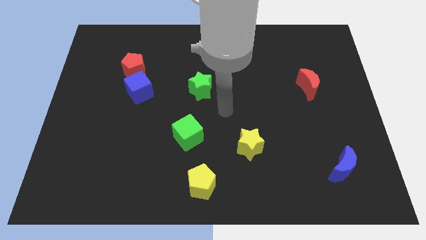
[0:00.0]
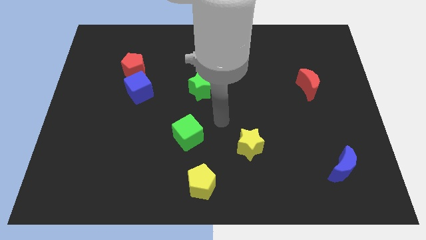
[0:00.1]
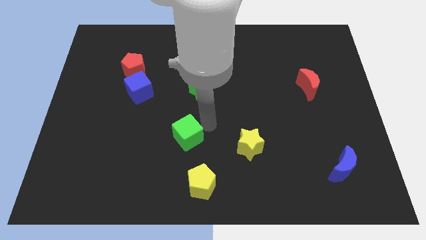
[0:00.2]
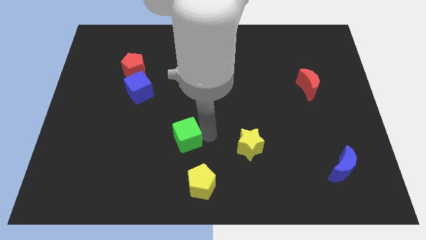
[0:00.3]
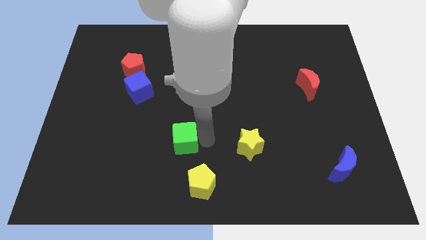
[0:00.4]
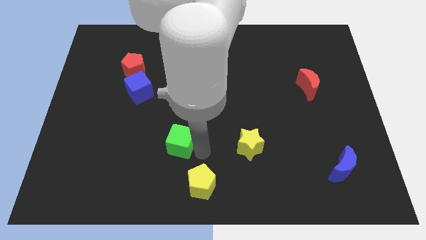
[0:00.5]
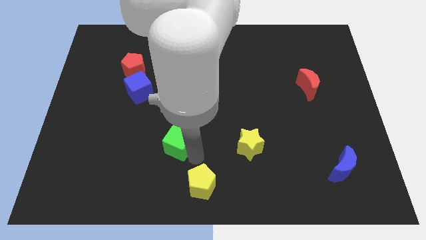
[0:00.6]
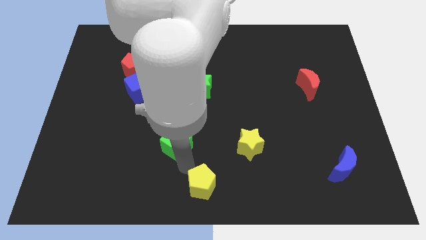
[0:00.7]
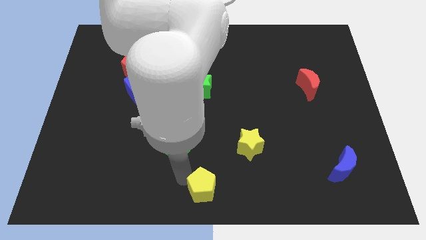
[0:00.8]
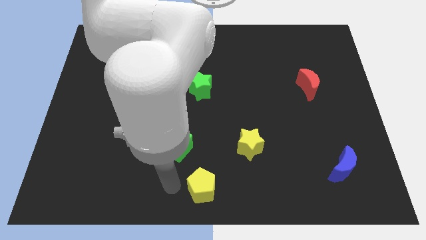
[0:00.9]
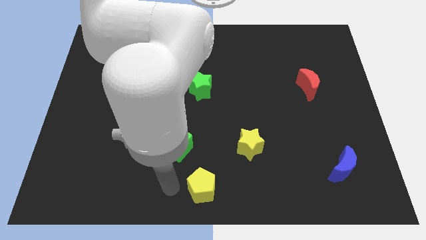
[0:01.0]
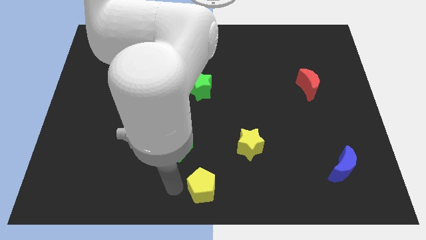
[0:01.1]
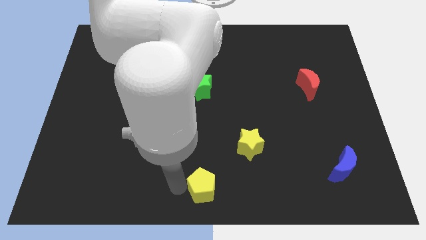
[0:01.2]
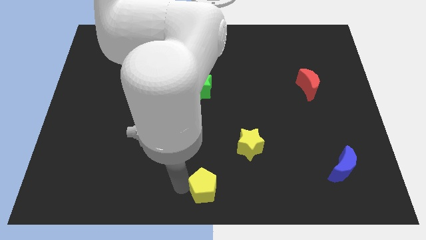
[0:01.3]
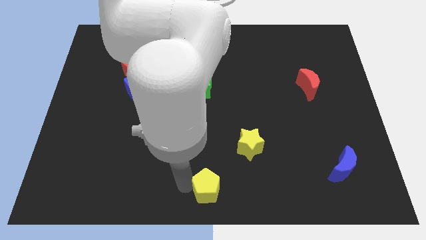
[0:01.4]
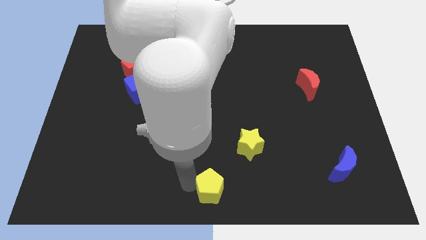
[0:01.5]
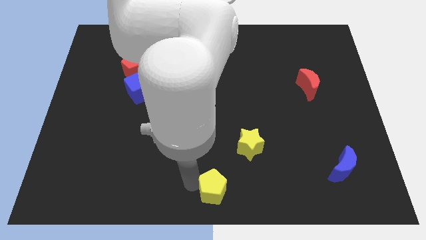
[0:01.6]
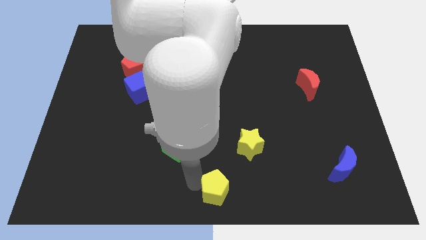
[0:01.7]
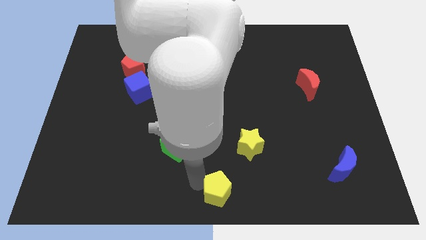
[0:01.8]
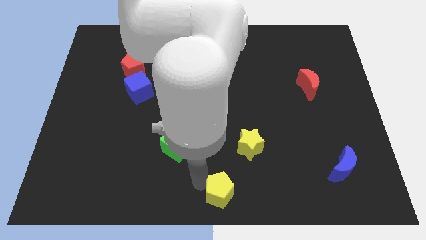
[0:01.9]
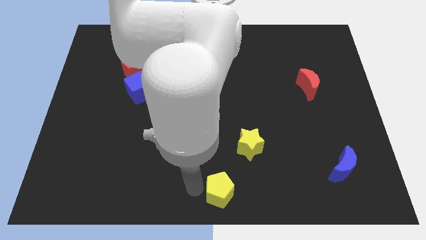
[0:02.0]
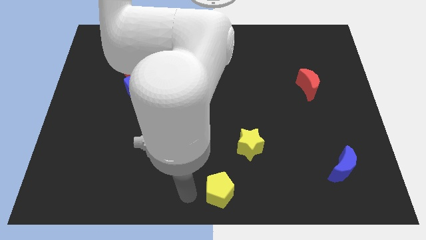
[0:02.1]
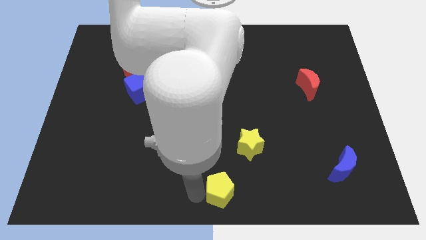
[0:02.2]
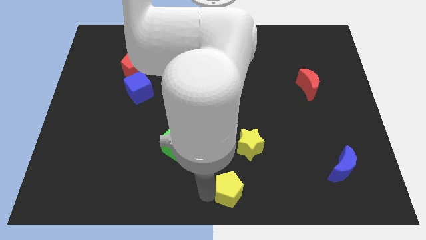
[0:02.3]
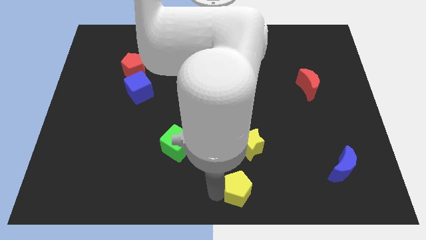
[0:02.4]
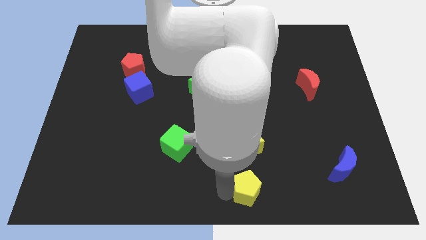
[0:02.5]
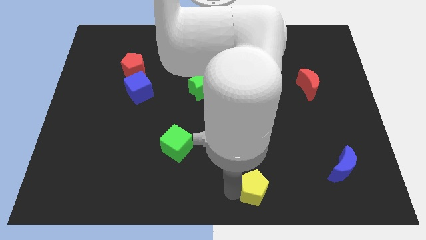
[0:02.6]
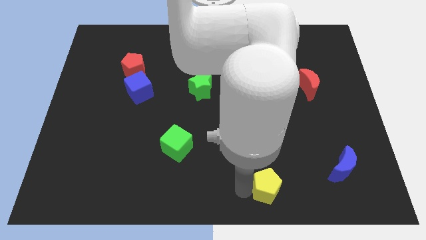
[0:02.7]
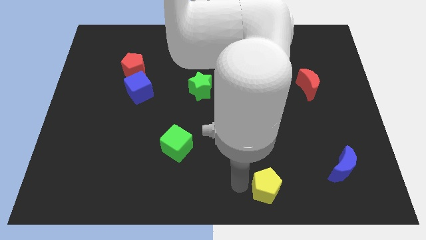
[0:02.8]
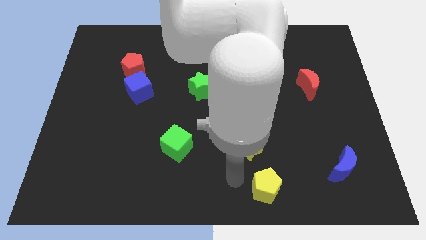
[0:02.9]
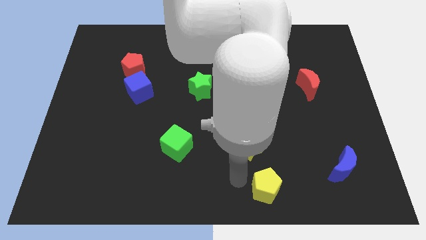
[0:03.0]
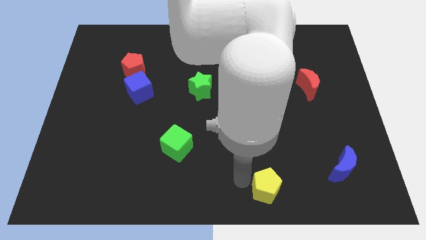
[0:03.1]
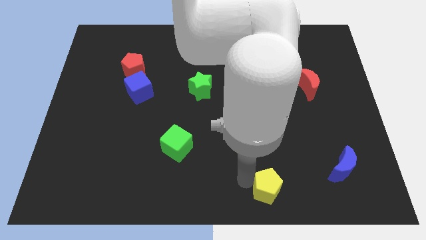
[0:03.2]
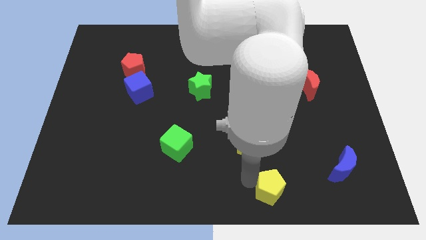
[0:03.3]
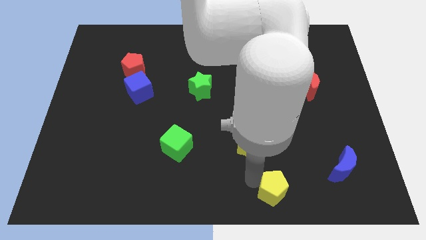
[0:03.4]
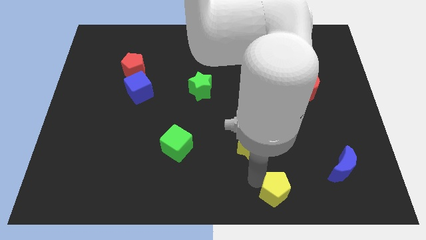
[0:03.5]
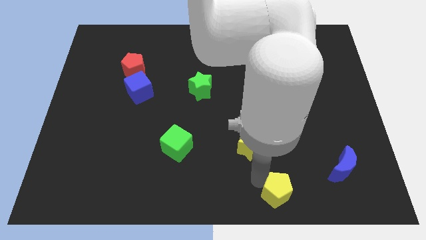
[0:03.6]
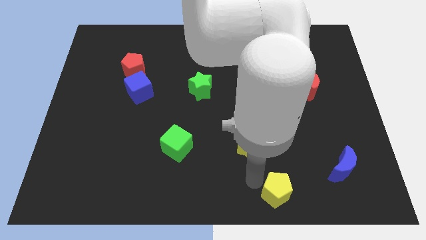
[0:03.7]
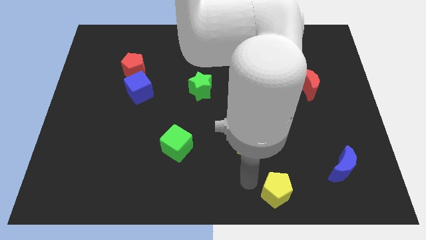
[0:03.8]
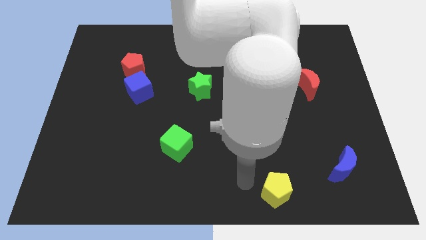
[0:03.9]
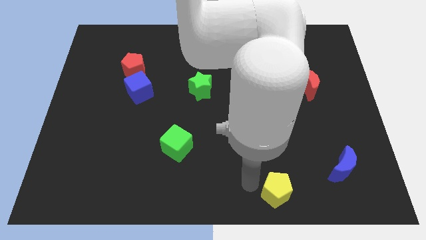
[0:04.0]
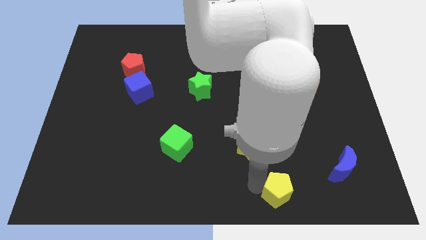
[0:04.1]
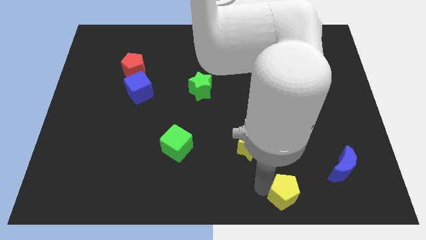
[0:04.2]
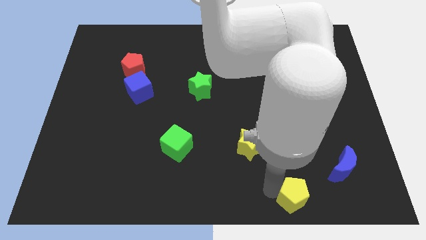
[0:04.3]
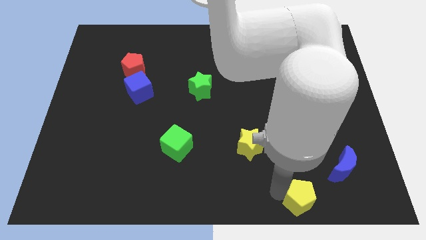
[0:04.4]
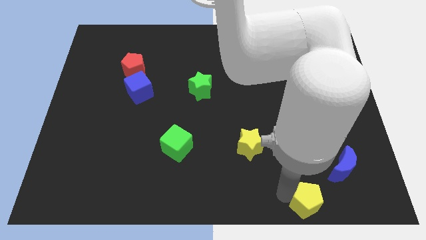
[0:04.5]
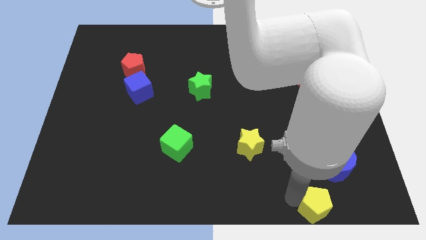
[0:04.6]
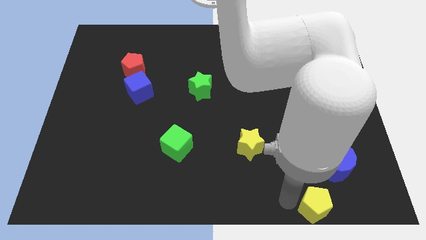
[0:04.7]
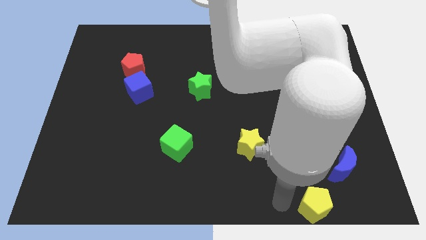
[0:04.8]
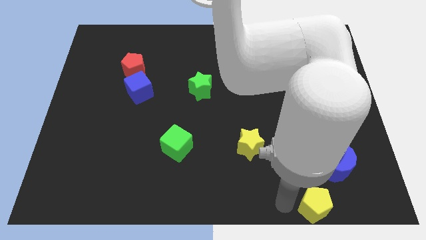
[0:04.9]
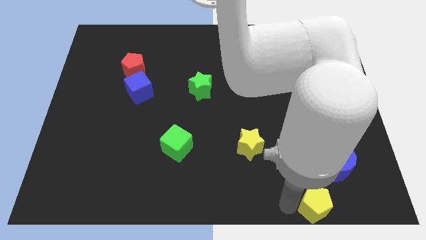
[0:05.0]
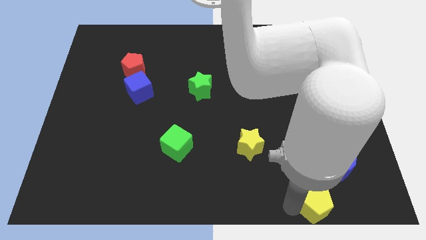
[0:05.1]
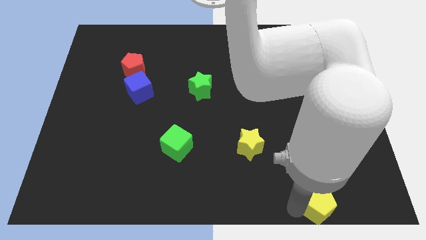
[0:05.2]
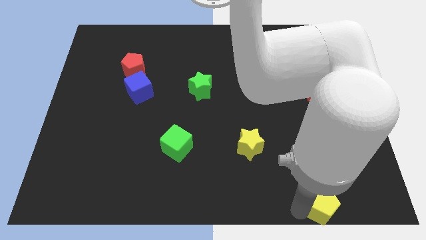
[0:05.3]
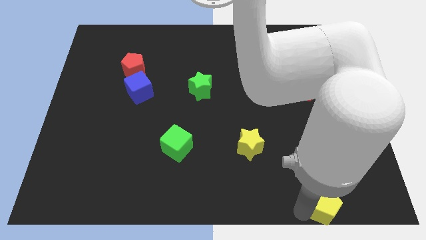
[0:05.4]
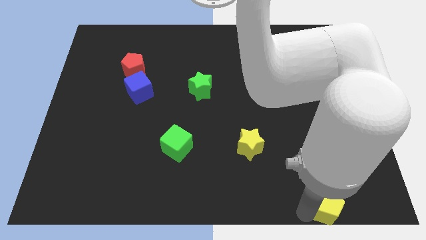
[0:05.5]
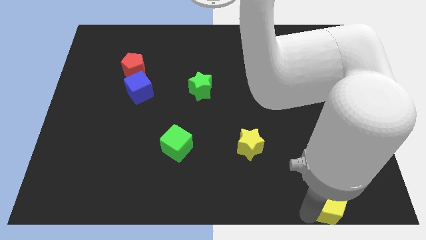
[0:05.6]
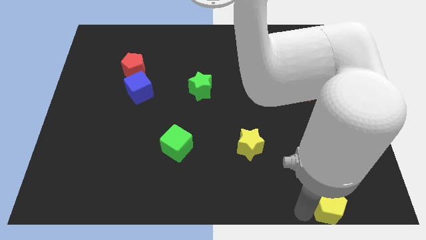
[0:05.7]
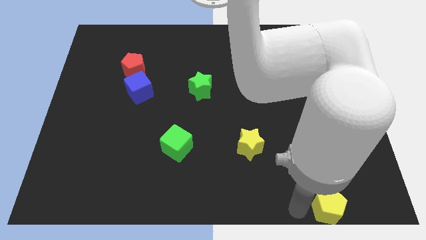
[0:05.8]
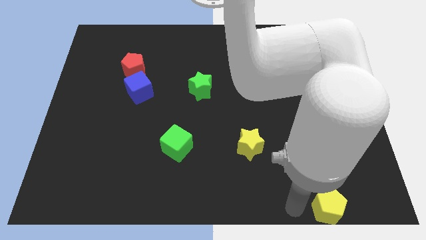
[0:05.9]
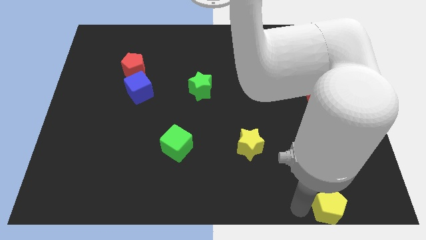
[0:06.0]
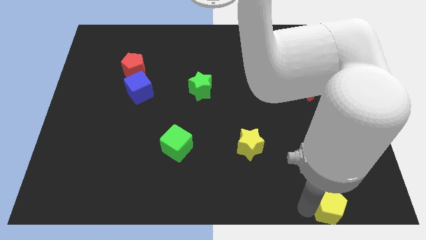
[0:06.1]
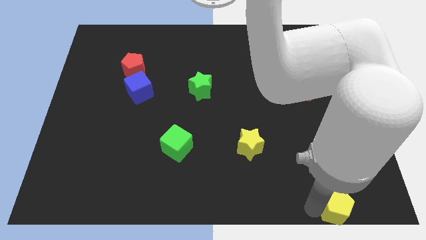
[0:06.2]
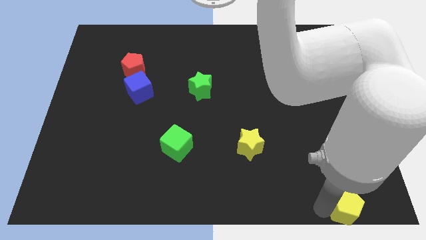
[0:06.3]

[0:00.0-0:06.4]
move the yellow pentagon to the bottom right corner
